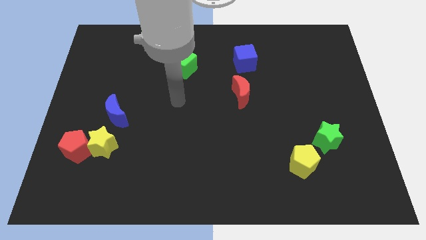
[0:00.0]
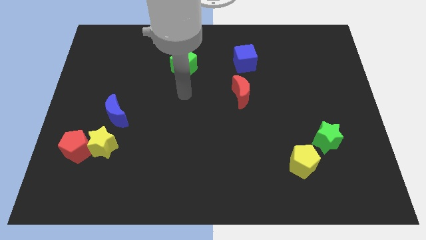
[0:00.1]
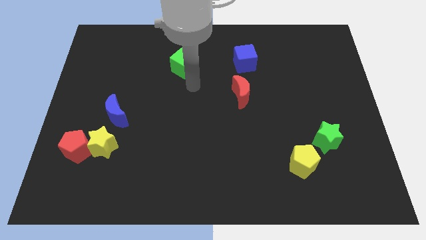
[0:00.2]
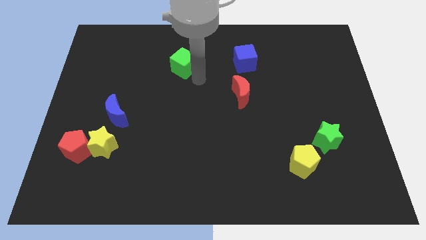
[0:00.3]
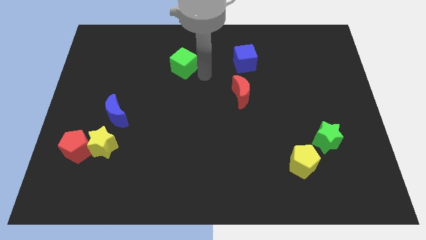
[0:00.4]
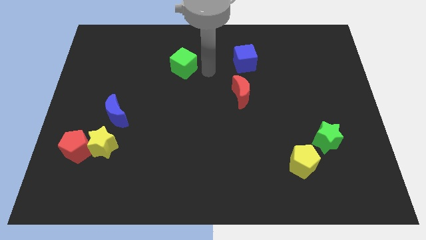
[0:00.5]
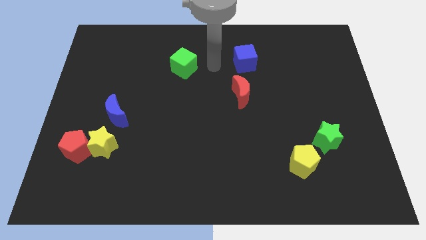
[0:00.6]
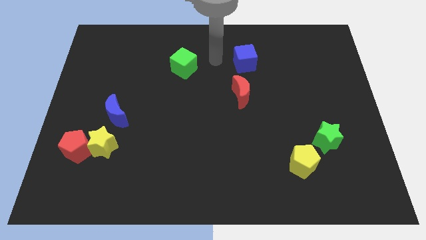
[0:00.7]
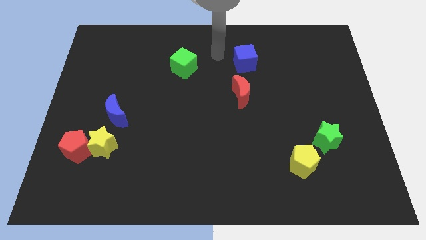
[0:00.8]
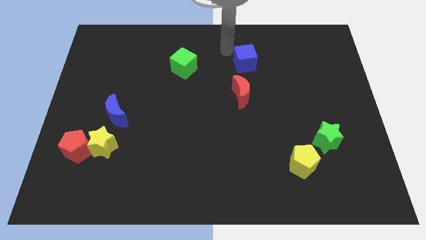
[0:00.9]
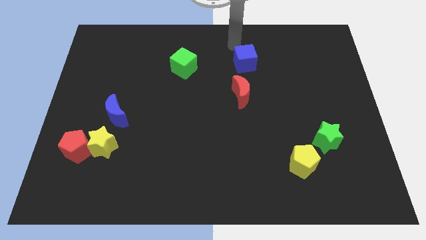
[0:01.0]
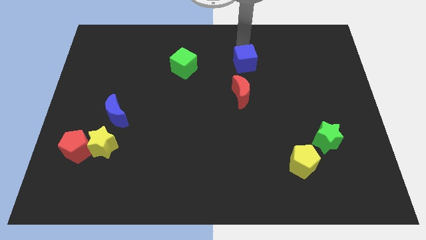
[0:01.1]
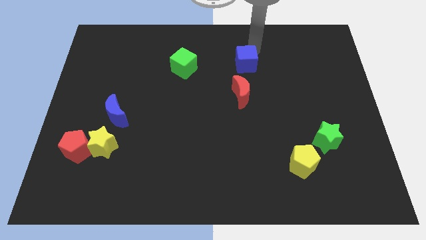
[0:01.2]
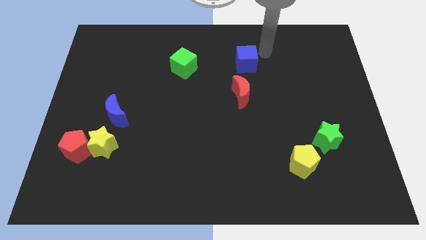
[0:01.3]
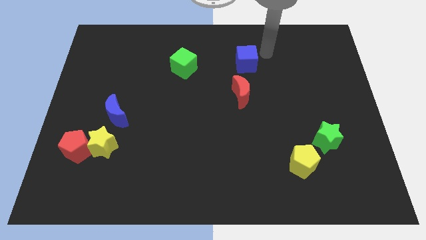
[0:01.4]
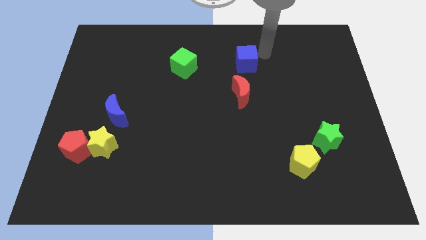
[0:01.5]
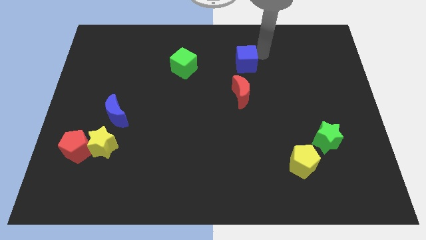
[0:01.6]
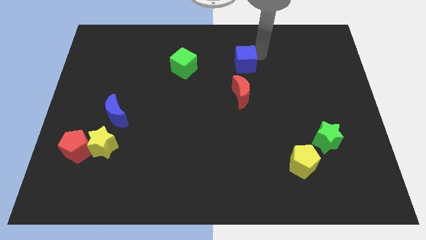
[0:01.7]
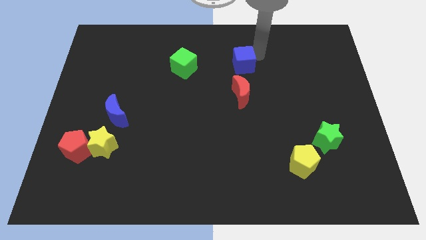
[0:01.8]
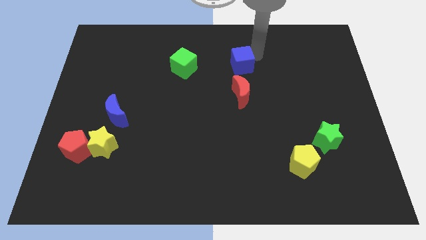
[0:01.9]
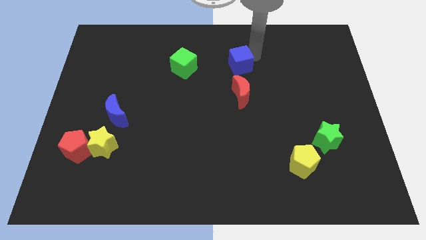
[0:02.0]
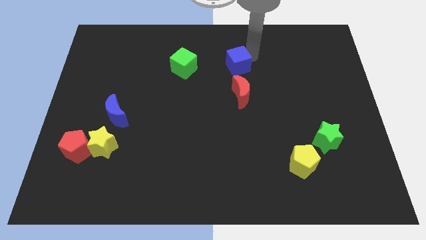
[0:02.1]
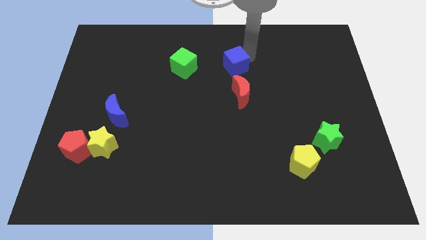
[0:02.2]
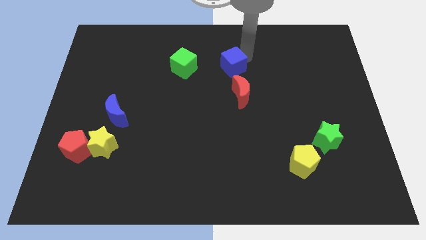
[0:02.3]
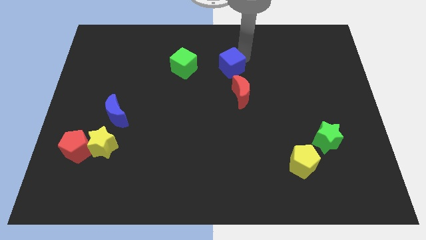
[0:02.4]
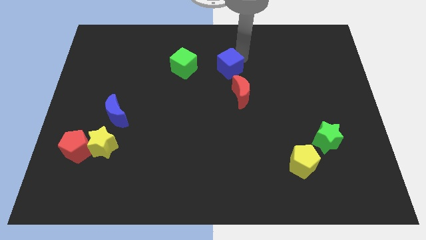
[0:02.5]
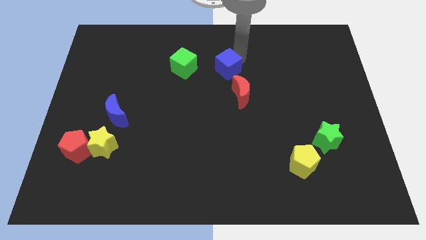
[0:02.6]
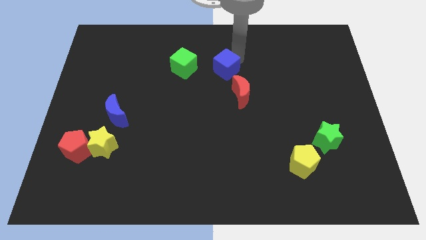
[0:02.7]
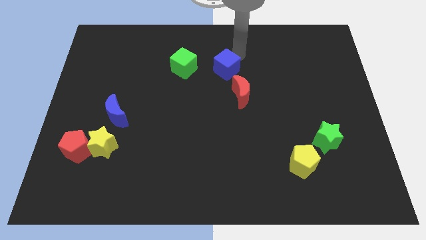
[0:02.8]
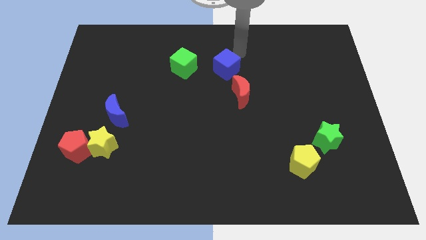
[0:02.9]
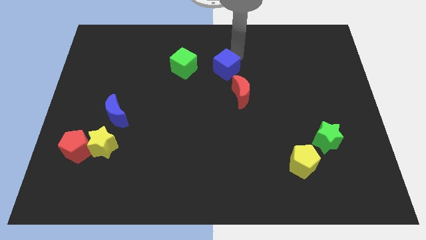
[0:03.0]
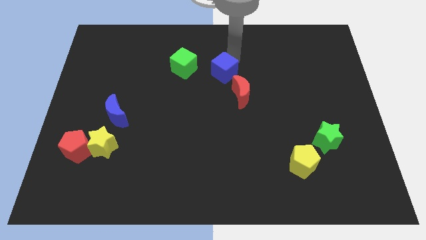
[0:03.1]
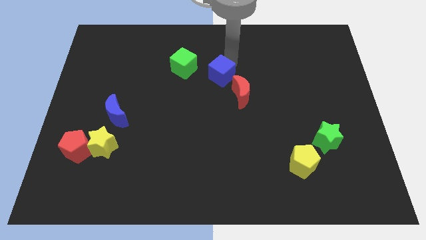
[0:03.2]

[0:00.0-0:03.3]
push the blue cube a bit downwards and left diagonally

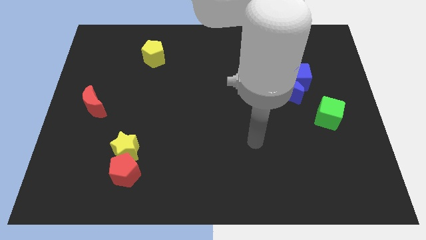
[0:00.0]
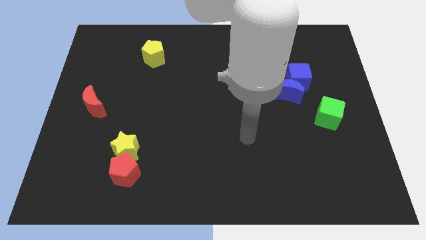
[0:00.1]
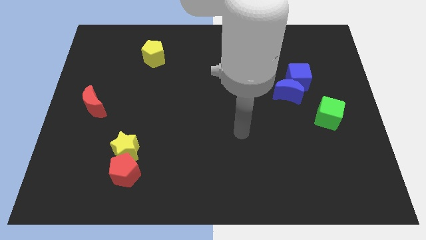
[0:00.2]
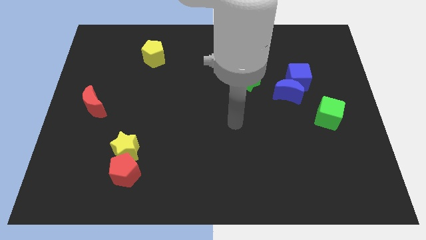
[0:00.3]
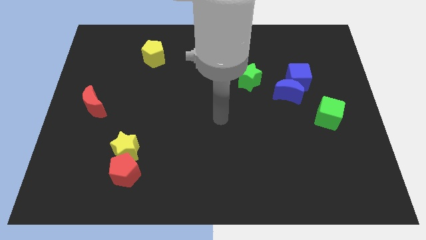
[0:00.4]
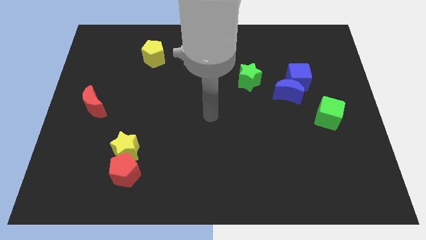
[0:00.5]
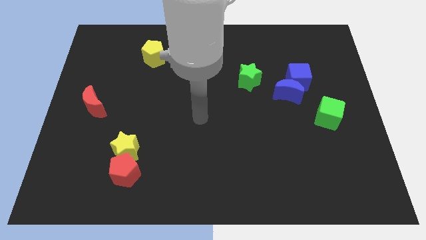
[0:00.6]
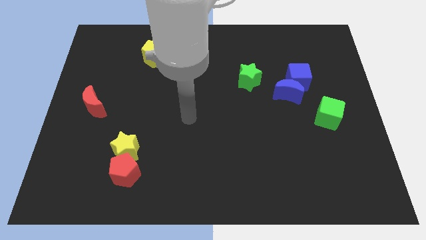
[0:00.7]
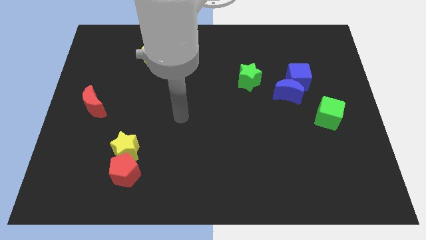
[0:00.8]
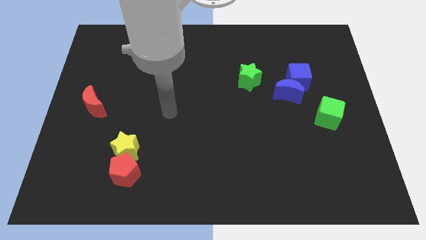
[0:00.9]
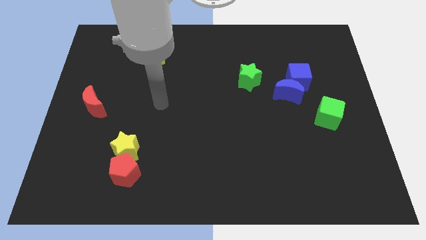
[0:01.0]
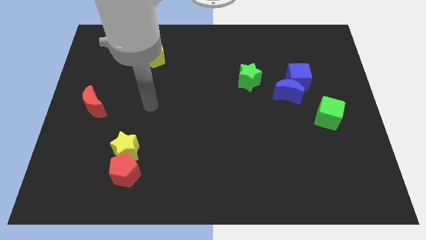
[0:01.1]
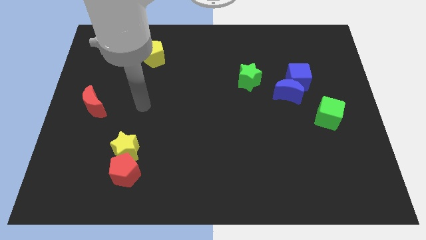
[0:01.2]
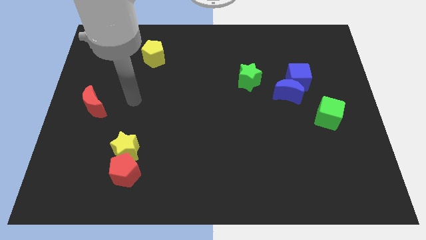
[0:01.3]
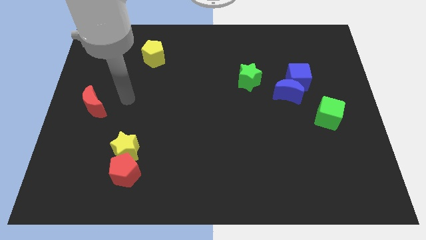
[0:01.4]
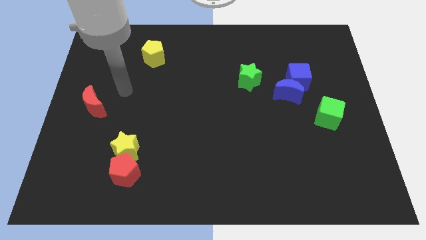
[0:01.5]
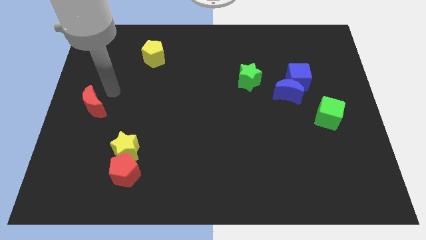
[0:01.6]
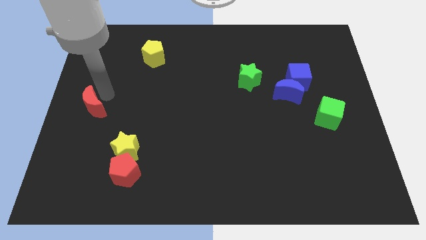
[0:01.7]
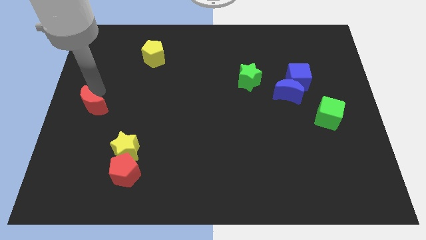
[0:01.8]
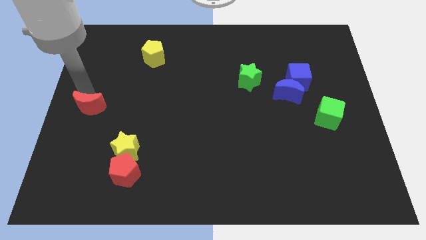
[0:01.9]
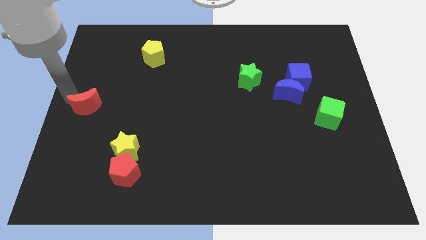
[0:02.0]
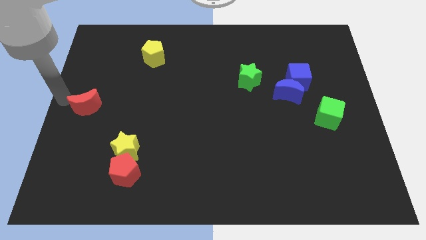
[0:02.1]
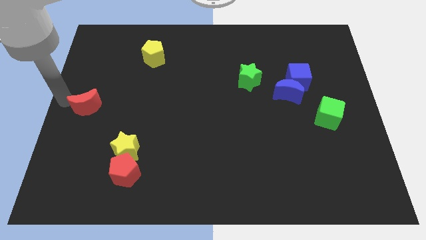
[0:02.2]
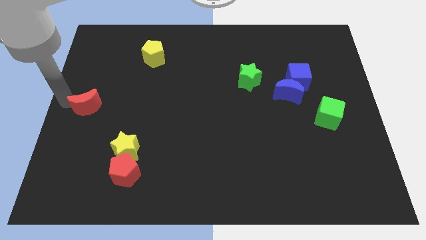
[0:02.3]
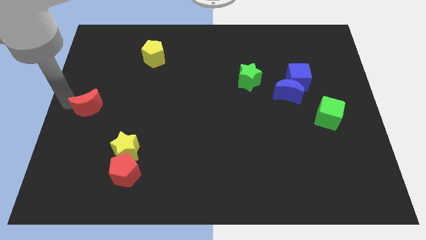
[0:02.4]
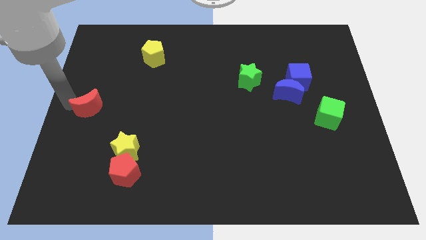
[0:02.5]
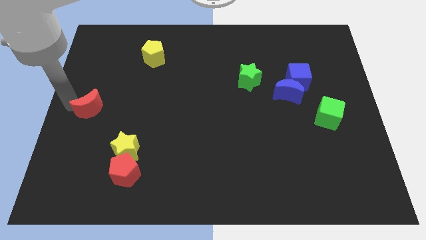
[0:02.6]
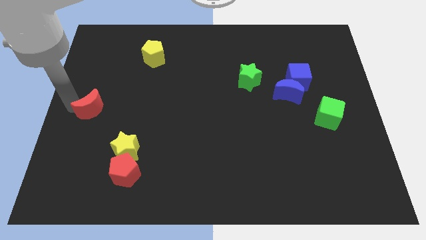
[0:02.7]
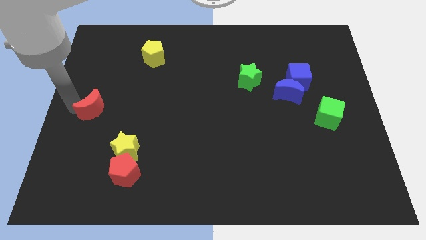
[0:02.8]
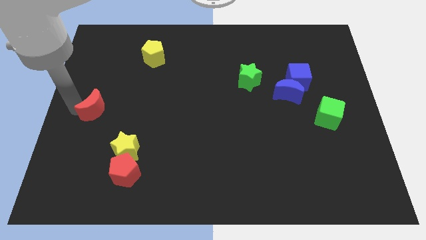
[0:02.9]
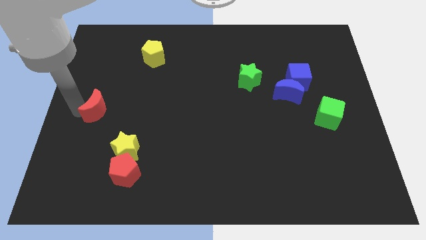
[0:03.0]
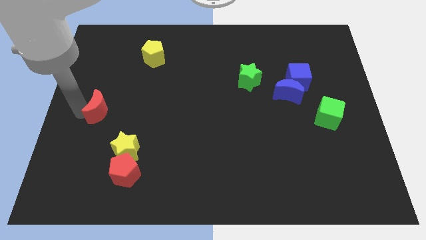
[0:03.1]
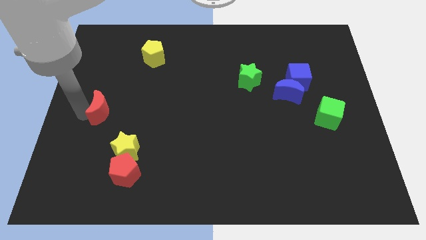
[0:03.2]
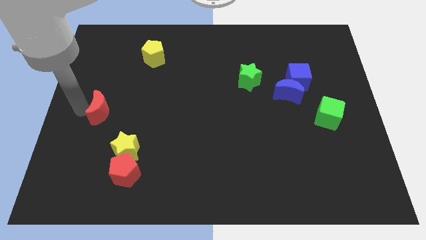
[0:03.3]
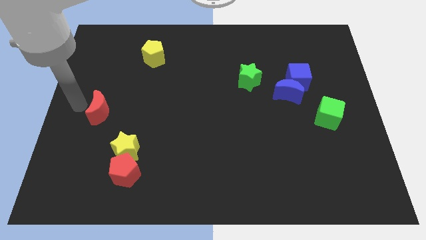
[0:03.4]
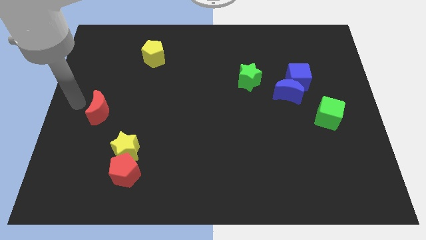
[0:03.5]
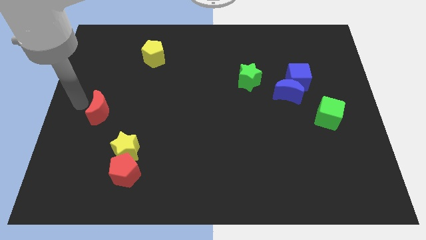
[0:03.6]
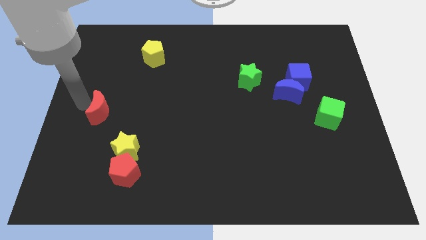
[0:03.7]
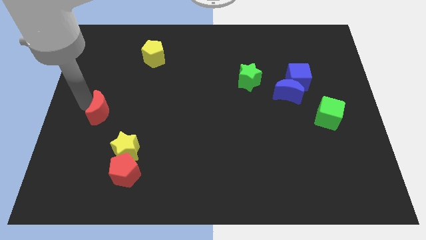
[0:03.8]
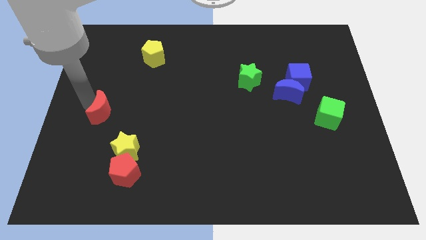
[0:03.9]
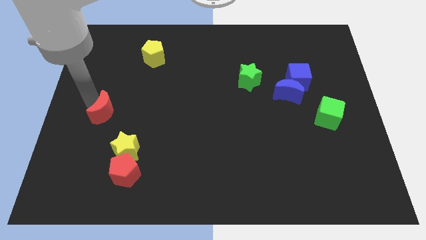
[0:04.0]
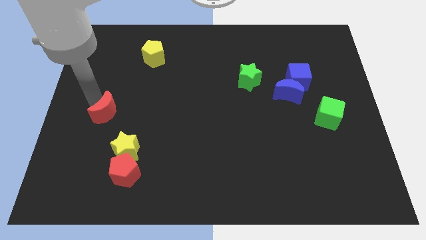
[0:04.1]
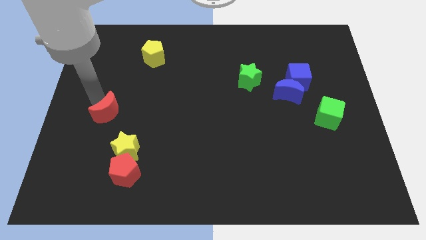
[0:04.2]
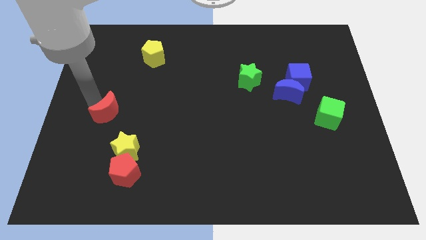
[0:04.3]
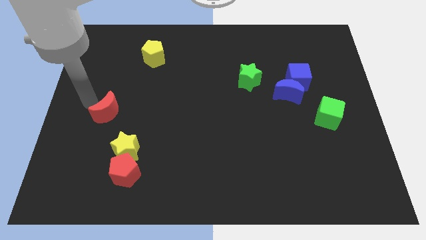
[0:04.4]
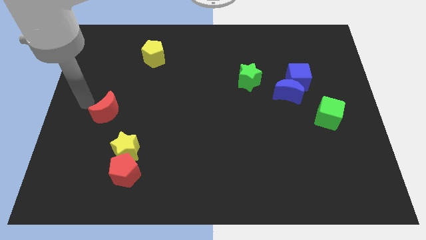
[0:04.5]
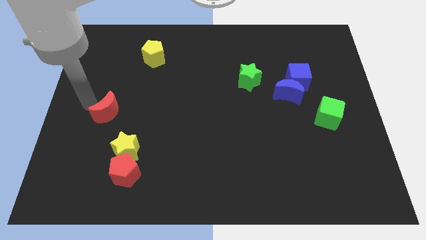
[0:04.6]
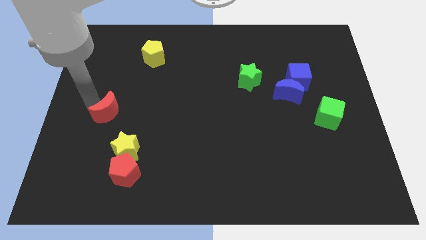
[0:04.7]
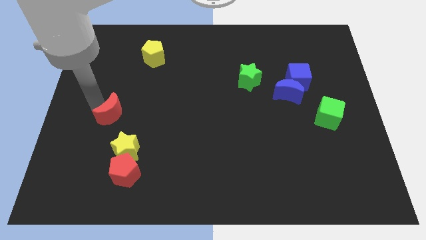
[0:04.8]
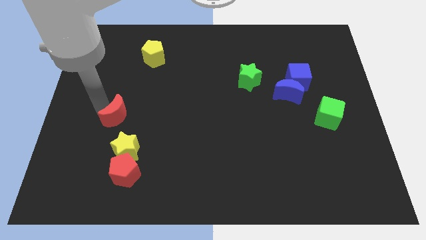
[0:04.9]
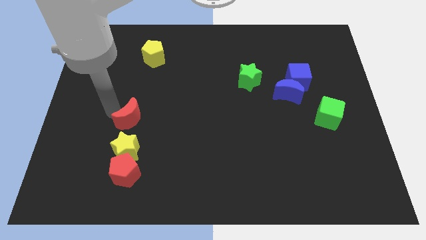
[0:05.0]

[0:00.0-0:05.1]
slide the red moon diagonally downwards and to the right a little bit
